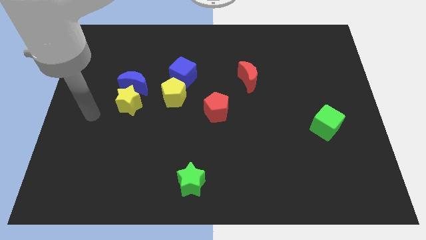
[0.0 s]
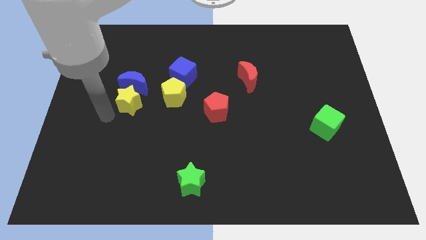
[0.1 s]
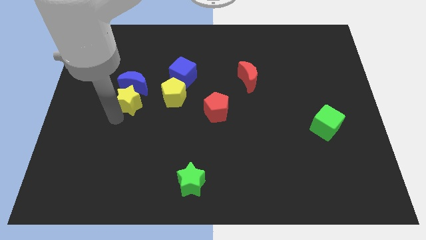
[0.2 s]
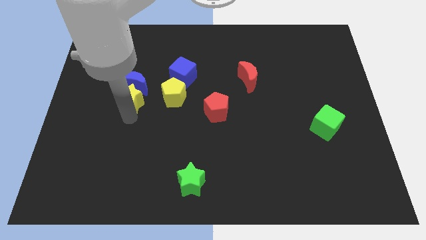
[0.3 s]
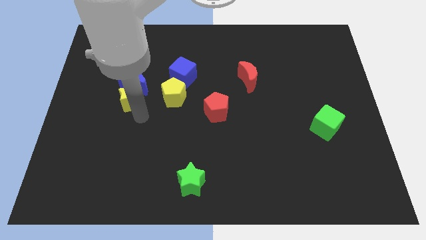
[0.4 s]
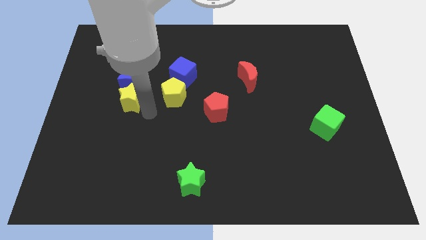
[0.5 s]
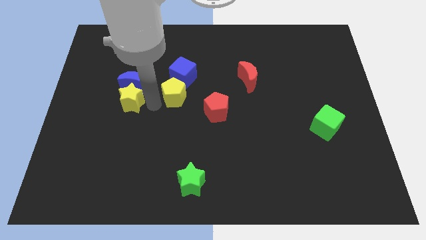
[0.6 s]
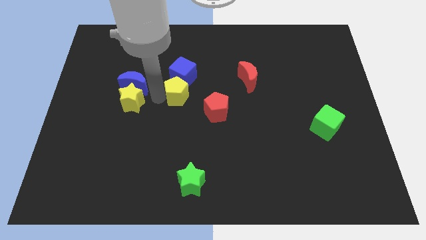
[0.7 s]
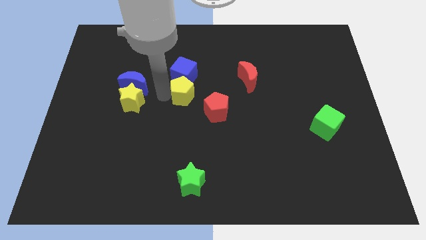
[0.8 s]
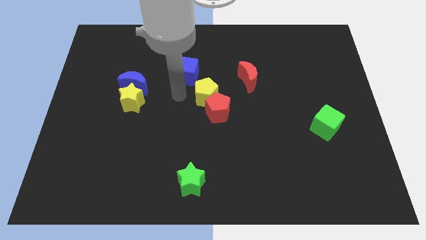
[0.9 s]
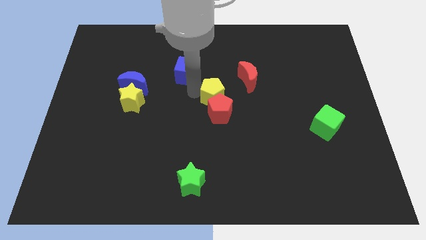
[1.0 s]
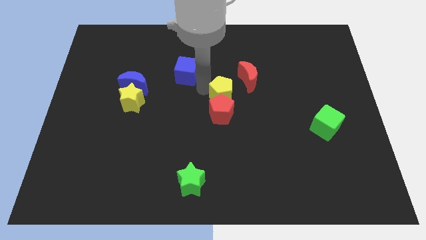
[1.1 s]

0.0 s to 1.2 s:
separate the blue cube from the yellow pentagon

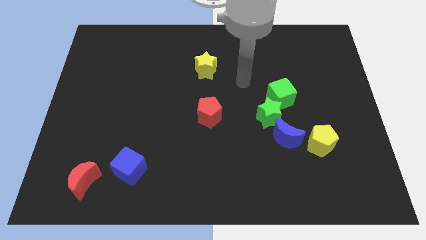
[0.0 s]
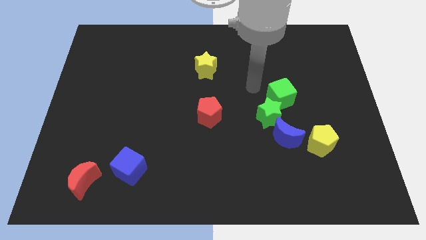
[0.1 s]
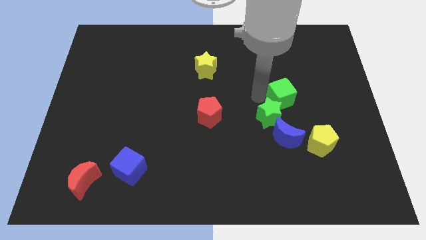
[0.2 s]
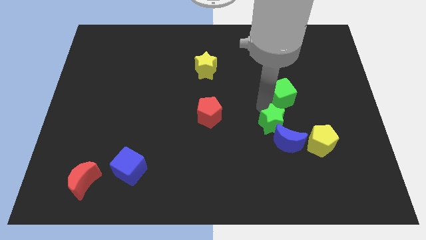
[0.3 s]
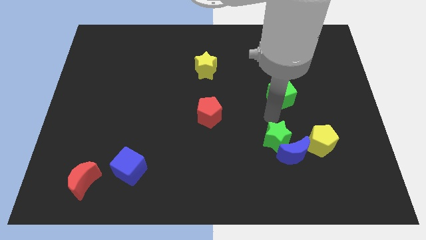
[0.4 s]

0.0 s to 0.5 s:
pull the green cube apart from the green star

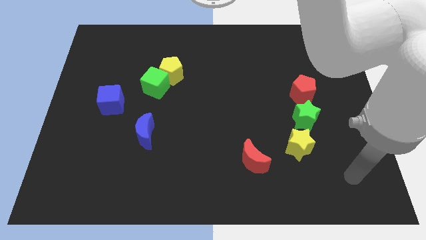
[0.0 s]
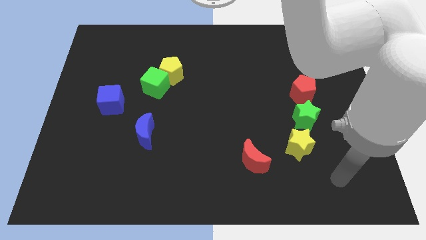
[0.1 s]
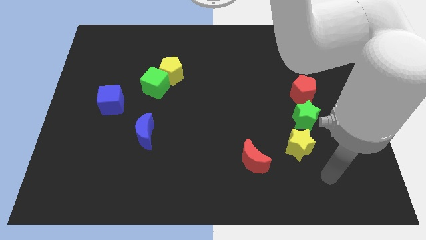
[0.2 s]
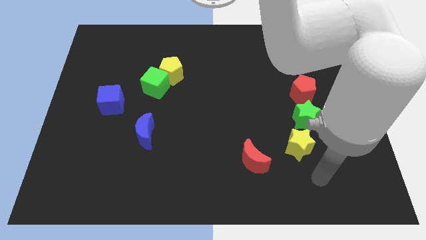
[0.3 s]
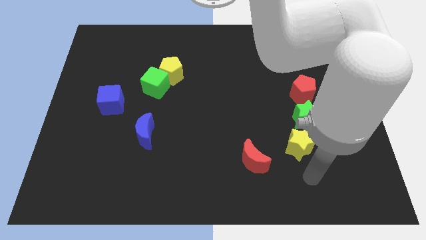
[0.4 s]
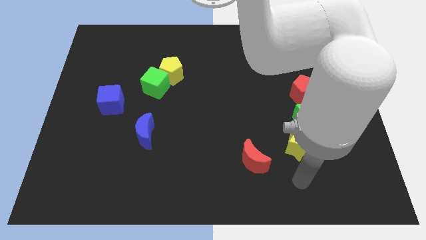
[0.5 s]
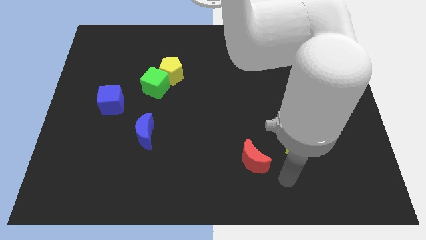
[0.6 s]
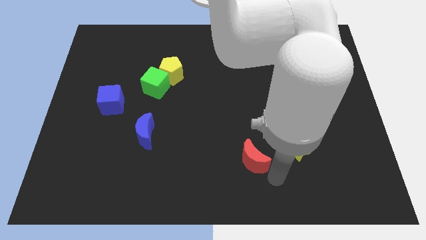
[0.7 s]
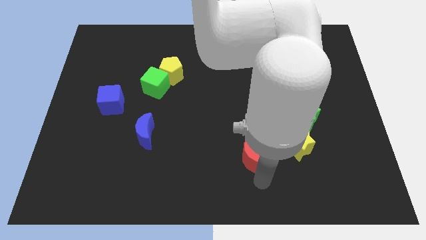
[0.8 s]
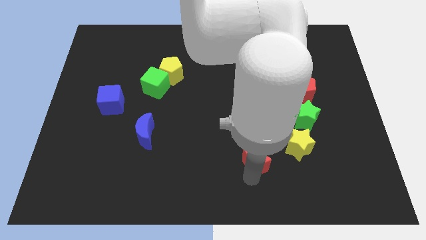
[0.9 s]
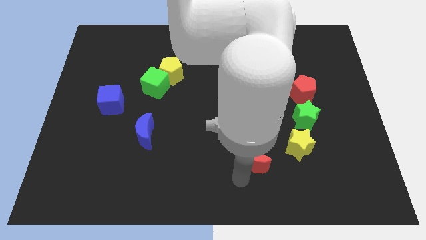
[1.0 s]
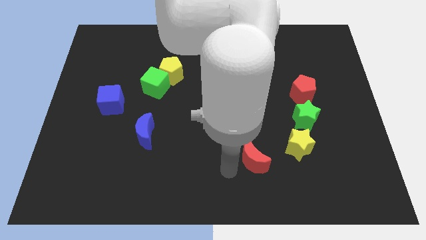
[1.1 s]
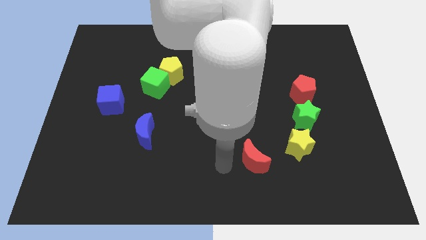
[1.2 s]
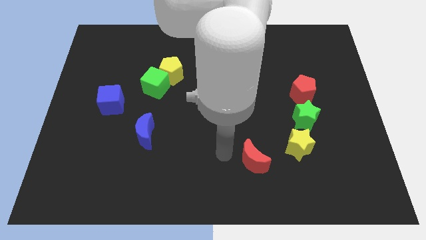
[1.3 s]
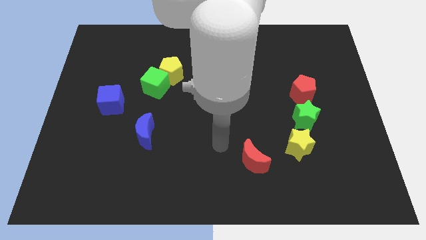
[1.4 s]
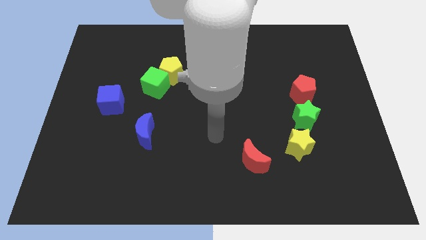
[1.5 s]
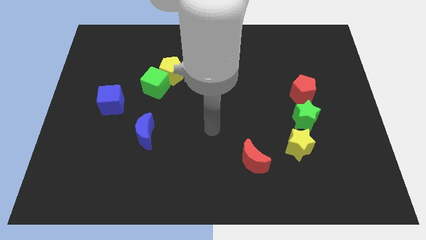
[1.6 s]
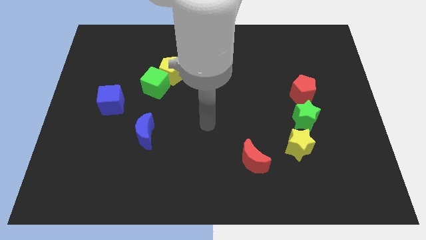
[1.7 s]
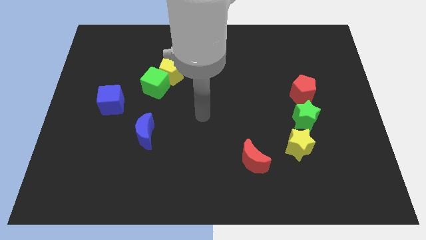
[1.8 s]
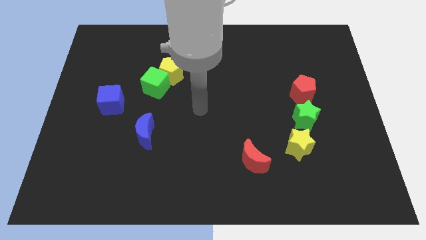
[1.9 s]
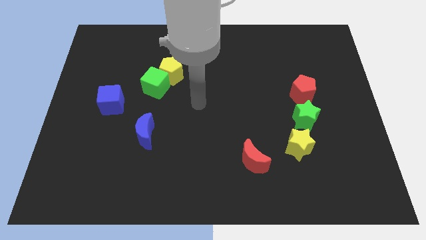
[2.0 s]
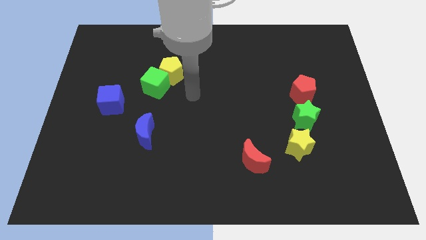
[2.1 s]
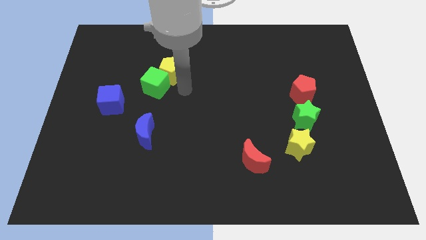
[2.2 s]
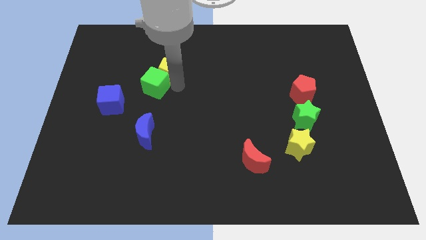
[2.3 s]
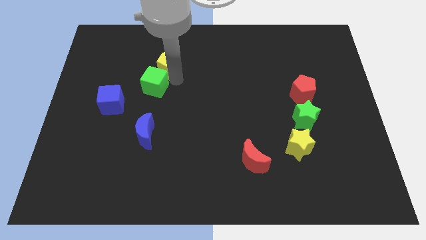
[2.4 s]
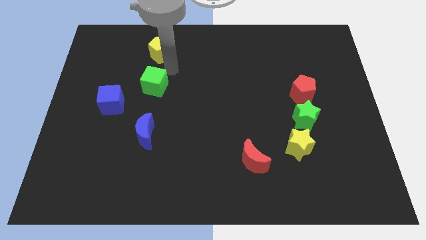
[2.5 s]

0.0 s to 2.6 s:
move the green cube away from the yellow pentagon

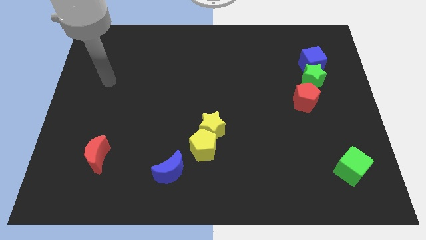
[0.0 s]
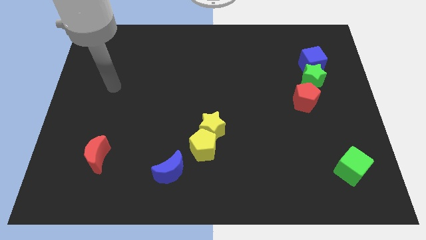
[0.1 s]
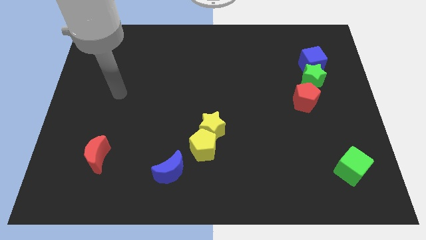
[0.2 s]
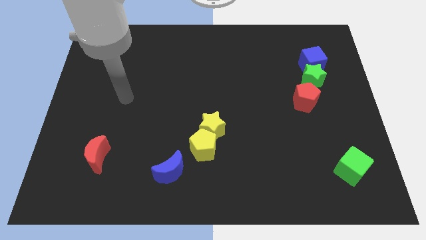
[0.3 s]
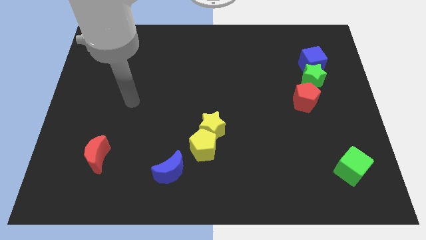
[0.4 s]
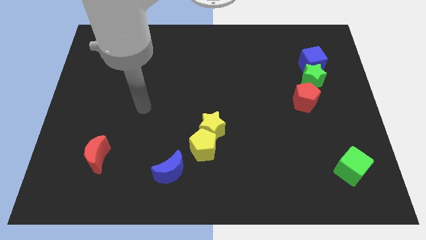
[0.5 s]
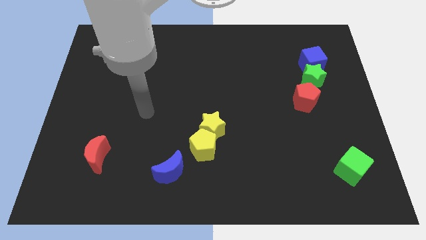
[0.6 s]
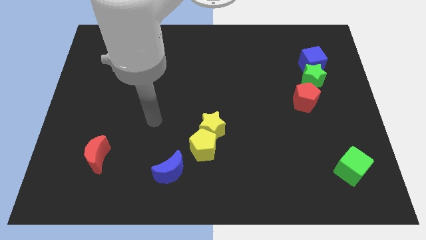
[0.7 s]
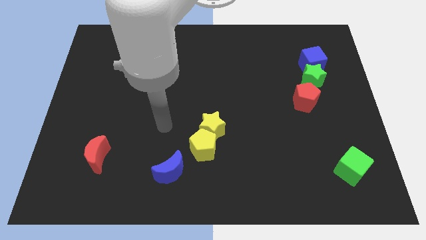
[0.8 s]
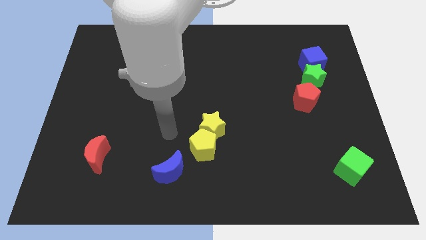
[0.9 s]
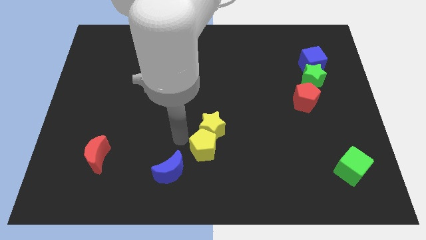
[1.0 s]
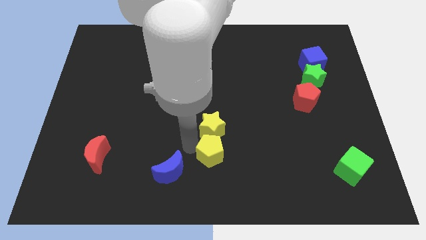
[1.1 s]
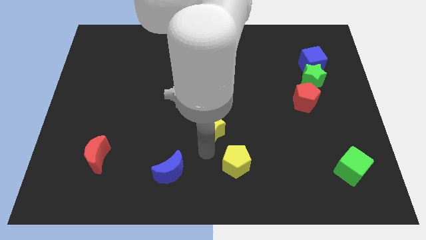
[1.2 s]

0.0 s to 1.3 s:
separate the yellow star from the yellow pentagon

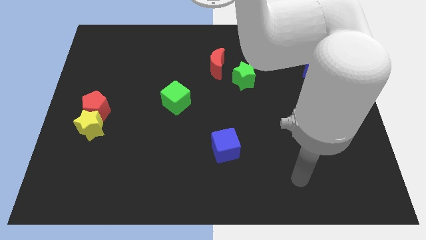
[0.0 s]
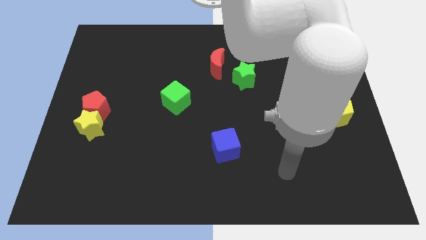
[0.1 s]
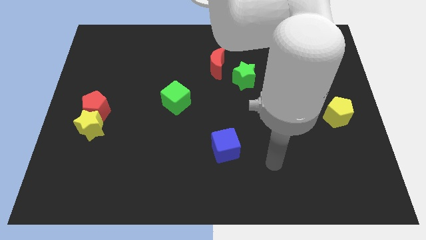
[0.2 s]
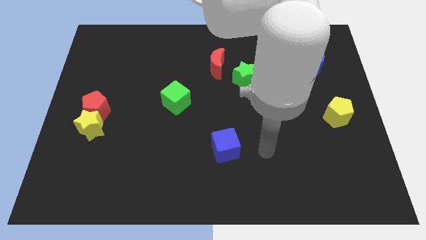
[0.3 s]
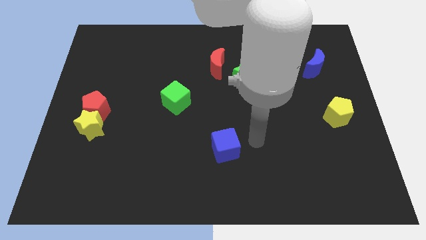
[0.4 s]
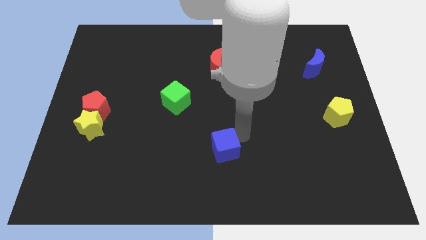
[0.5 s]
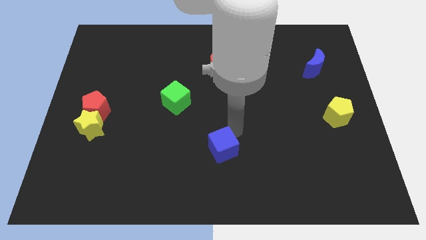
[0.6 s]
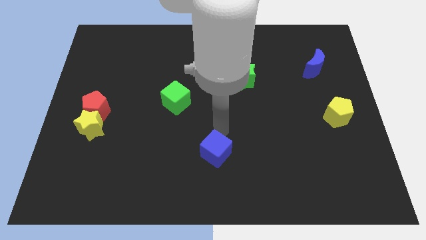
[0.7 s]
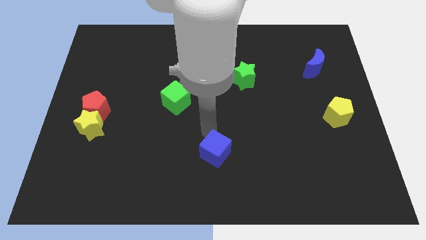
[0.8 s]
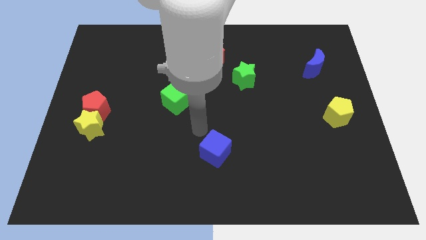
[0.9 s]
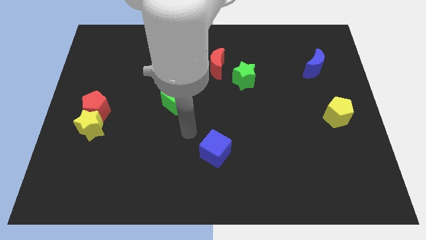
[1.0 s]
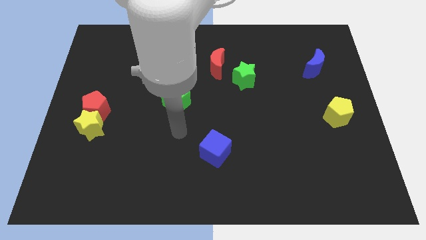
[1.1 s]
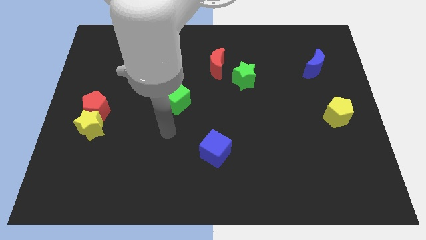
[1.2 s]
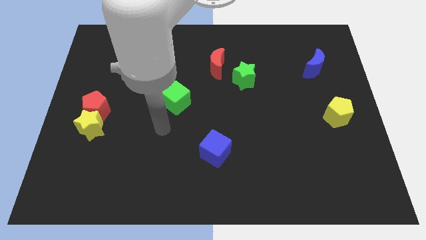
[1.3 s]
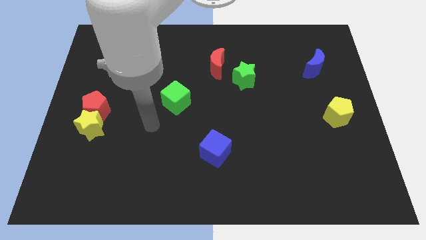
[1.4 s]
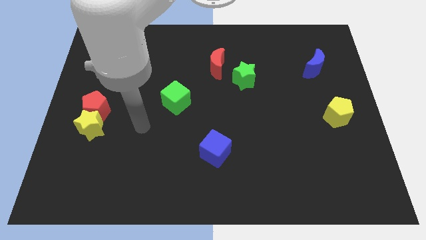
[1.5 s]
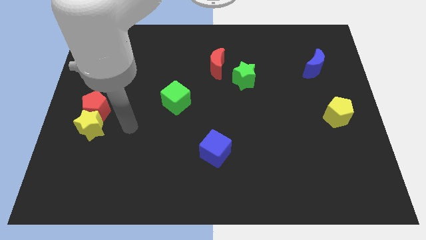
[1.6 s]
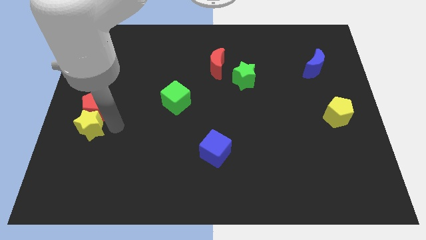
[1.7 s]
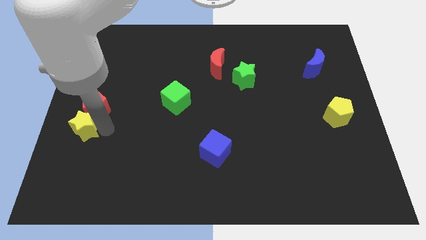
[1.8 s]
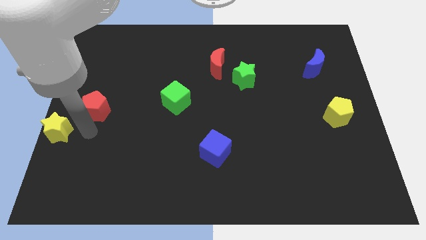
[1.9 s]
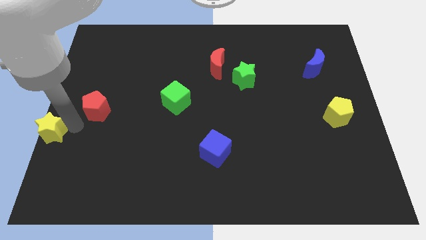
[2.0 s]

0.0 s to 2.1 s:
separate the red pentagon from the yellow star

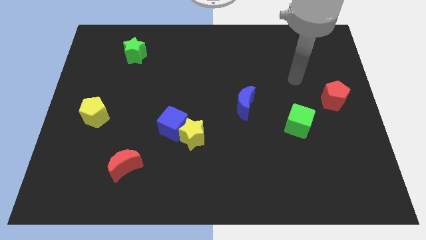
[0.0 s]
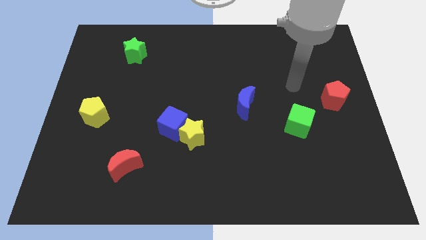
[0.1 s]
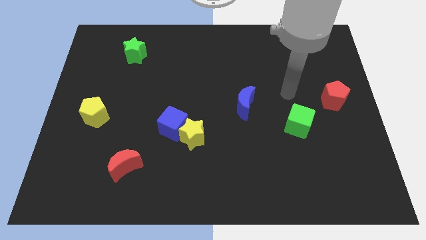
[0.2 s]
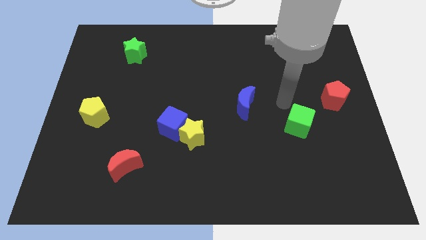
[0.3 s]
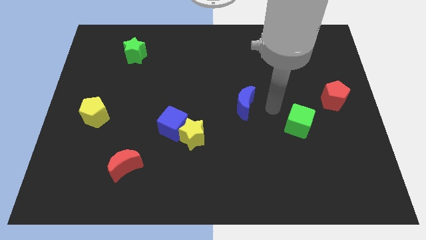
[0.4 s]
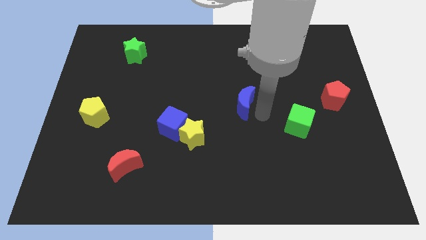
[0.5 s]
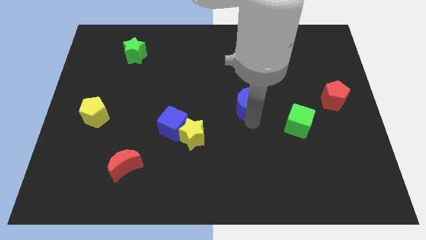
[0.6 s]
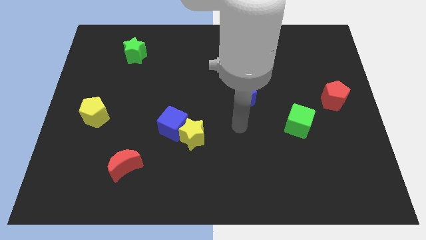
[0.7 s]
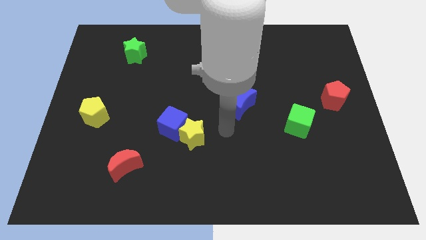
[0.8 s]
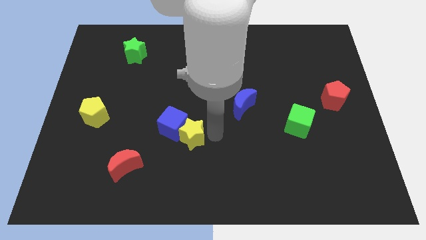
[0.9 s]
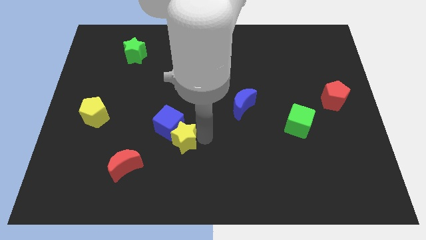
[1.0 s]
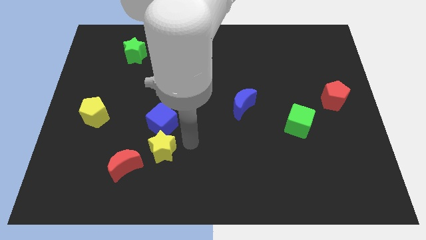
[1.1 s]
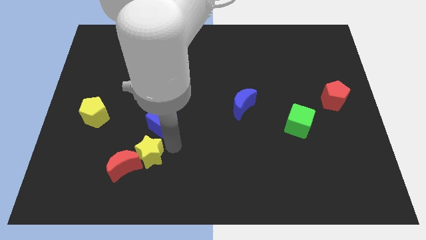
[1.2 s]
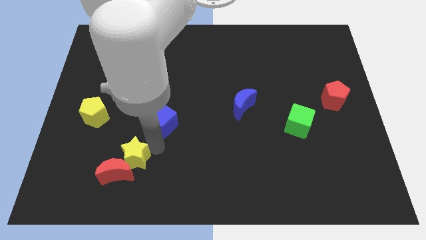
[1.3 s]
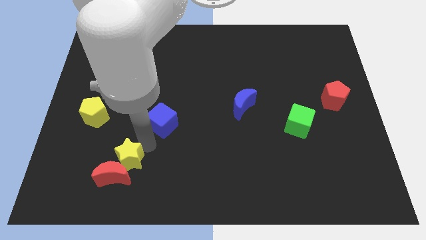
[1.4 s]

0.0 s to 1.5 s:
separate the blue cube from the yellow star

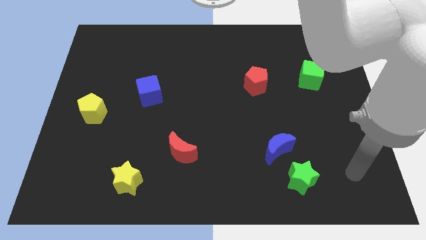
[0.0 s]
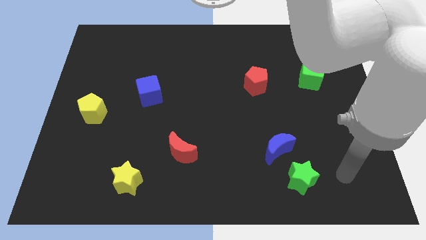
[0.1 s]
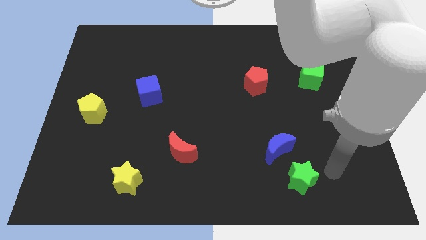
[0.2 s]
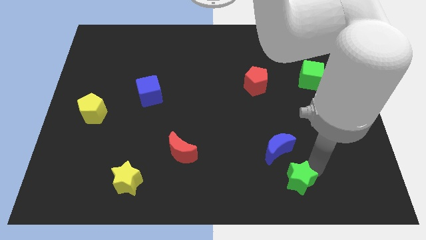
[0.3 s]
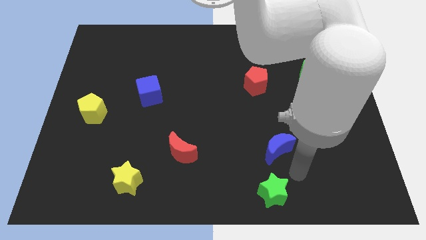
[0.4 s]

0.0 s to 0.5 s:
move the blue moon away from the green star
